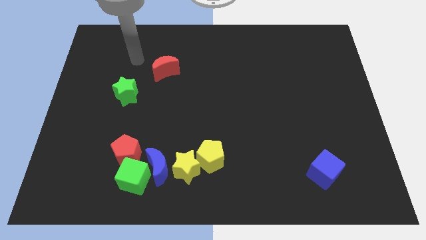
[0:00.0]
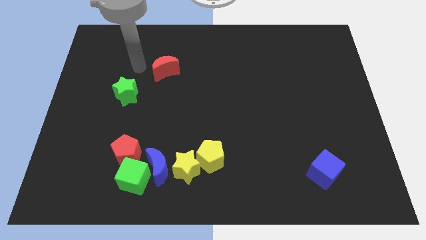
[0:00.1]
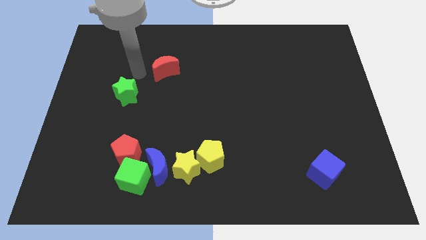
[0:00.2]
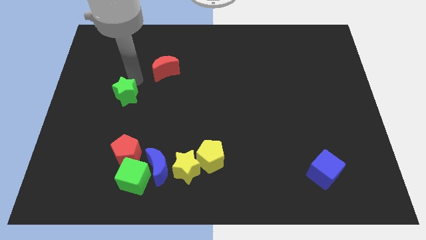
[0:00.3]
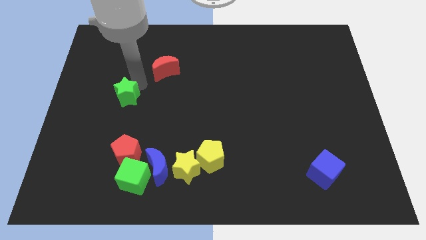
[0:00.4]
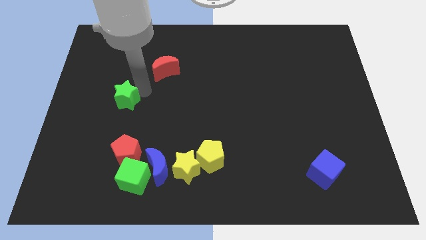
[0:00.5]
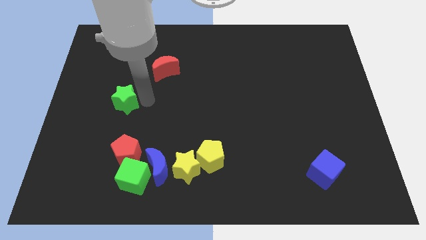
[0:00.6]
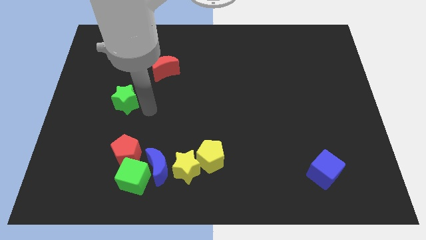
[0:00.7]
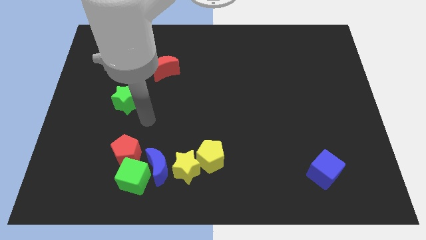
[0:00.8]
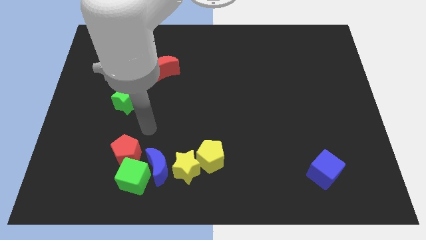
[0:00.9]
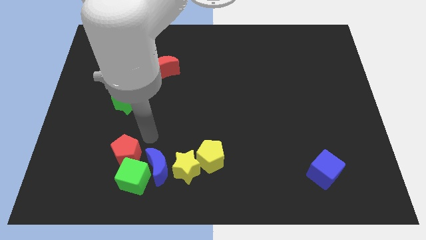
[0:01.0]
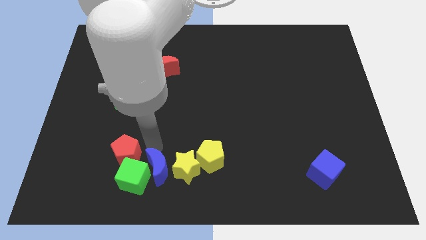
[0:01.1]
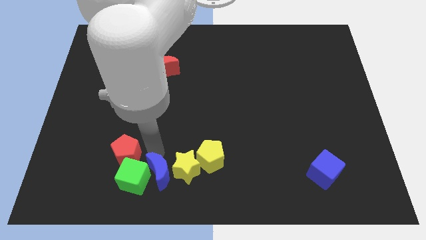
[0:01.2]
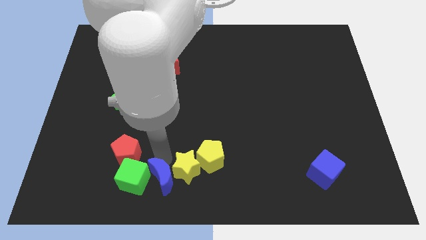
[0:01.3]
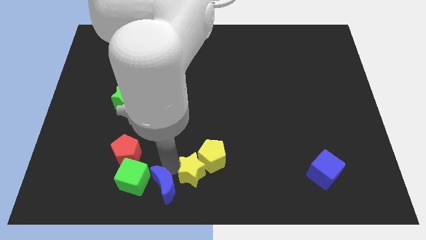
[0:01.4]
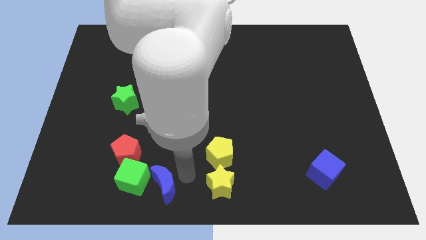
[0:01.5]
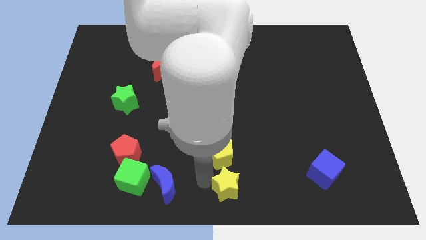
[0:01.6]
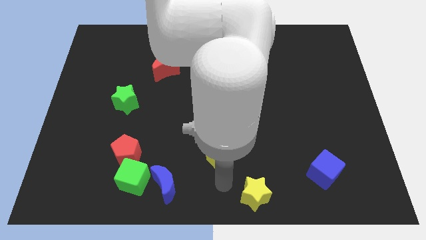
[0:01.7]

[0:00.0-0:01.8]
move the yellow pentagon away from the yellow star

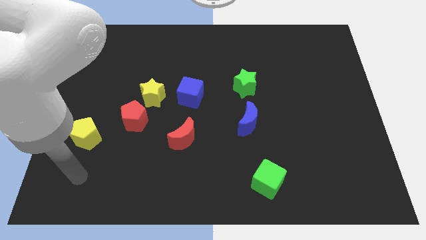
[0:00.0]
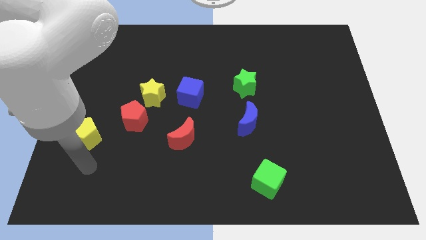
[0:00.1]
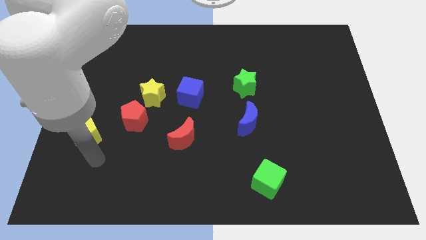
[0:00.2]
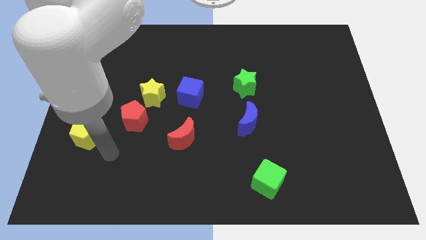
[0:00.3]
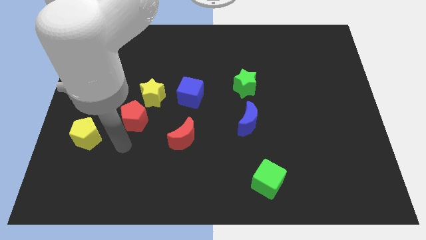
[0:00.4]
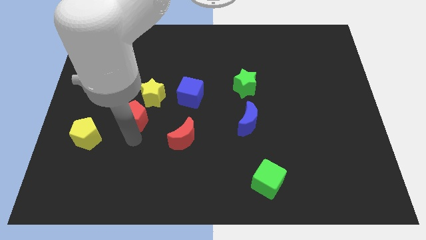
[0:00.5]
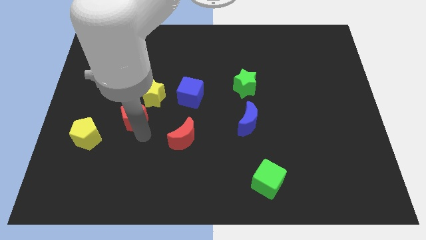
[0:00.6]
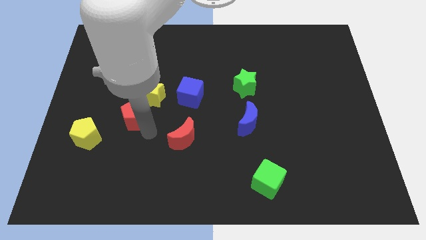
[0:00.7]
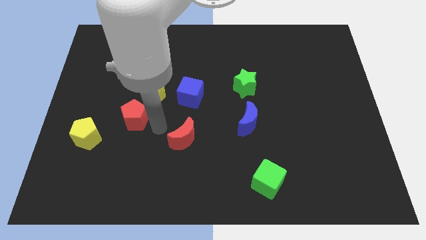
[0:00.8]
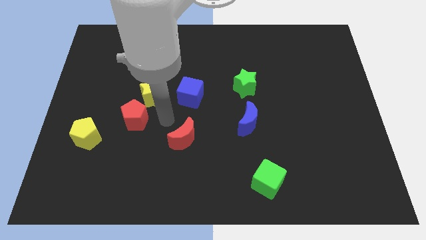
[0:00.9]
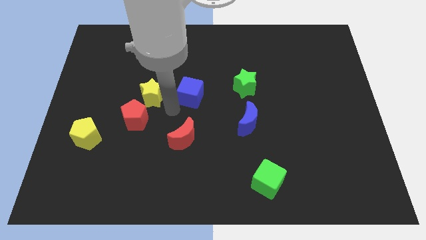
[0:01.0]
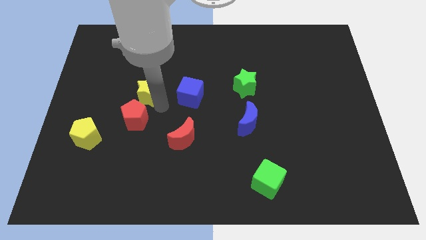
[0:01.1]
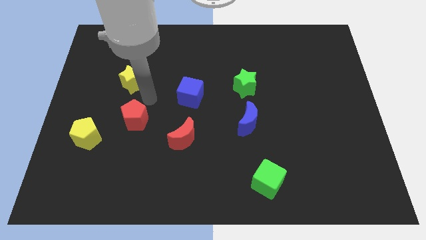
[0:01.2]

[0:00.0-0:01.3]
pull the red pentagon apart from the yellow star

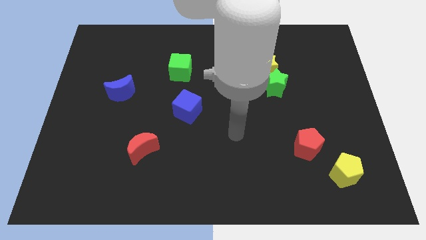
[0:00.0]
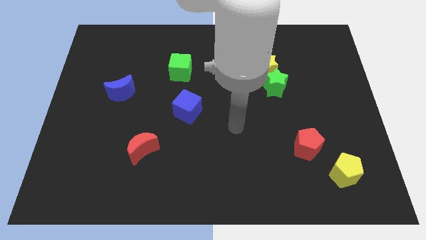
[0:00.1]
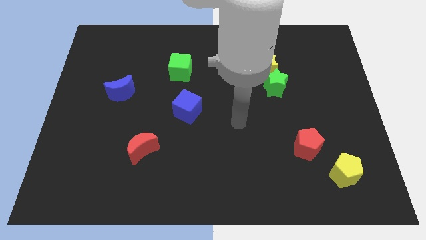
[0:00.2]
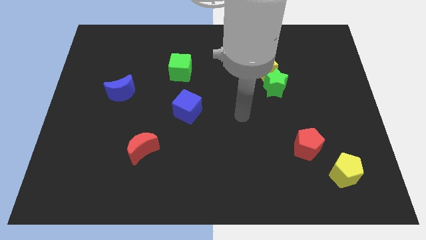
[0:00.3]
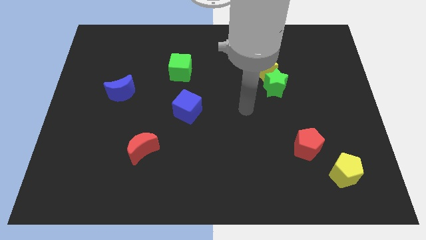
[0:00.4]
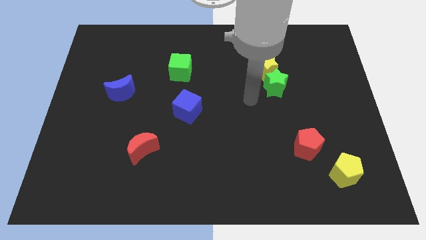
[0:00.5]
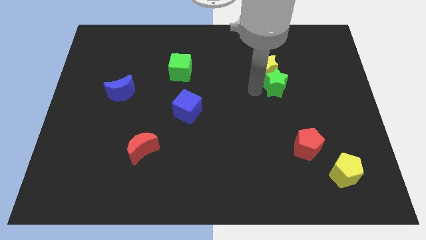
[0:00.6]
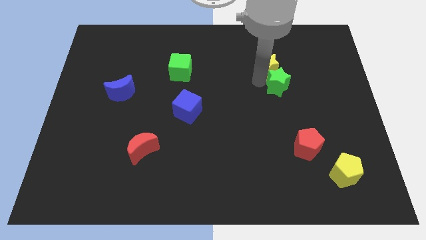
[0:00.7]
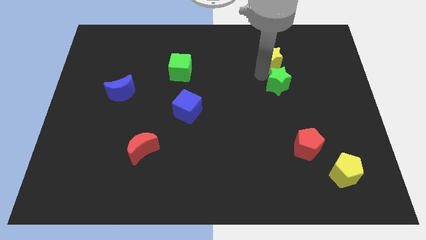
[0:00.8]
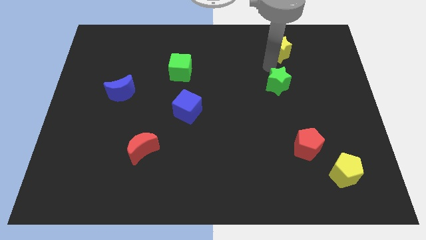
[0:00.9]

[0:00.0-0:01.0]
separate the green star from the yellow star

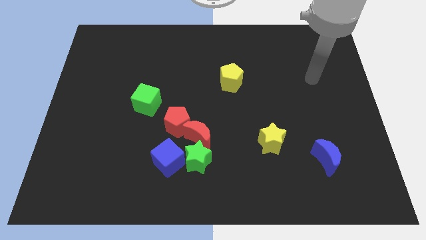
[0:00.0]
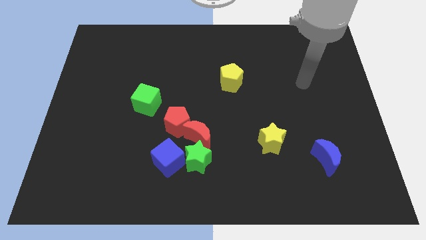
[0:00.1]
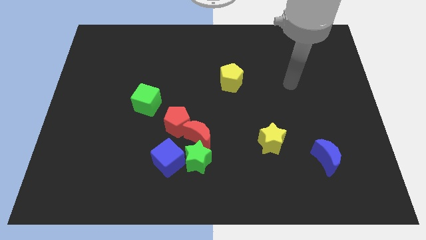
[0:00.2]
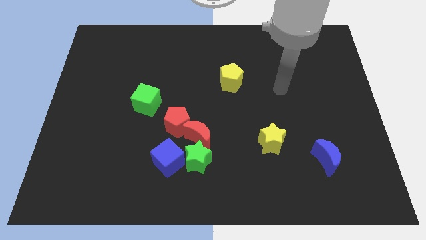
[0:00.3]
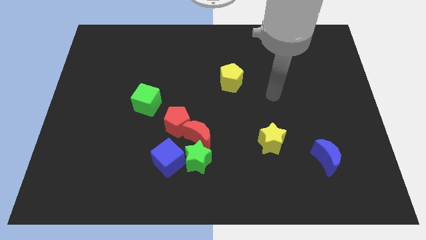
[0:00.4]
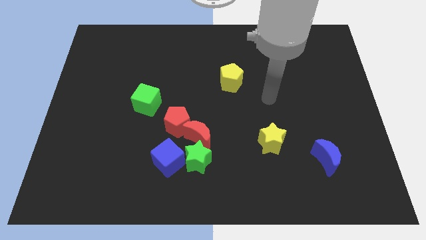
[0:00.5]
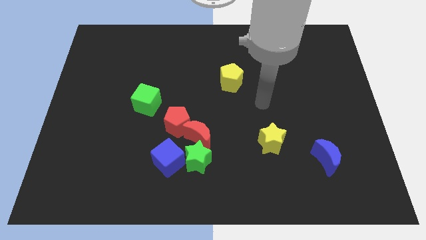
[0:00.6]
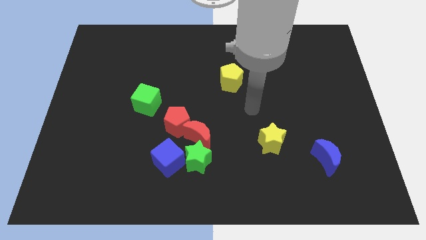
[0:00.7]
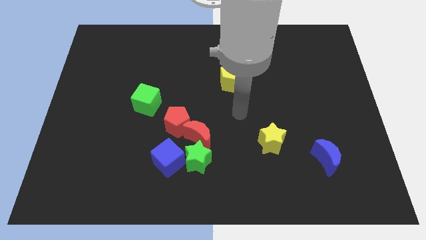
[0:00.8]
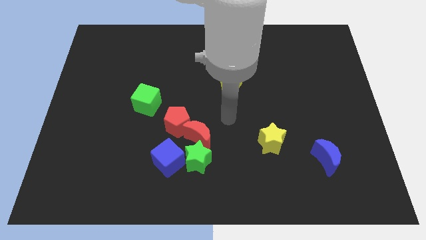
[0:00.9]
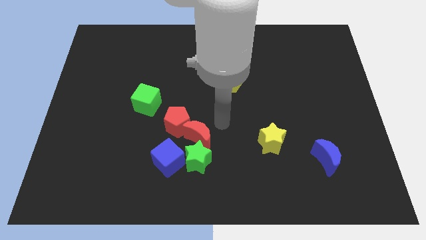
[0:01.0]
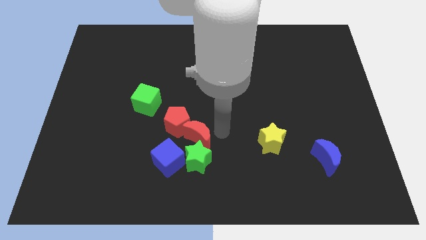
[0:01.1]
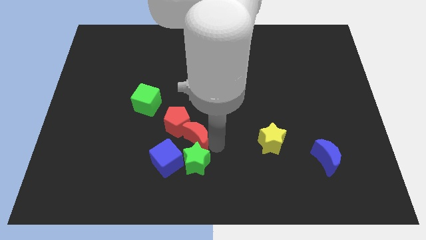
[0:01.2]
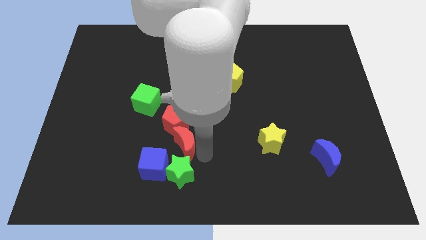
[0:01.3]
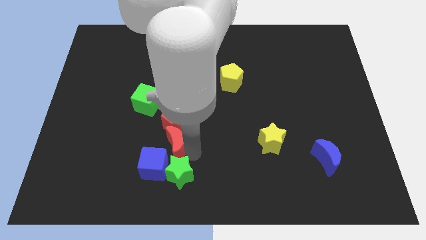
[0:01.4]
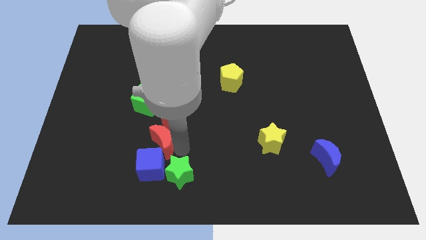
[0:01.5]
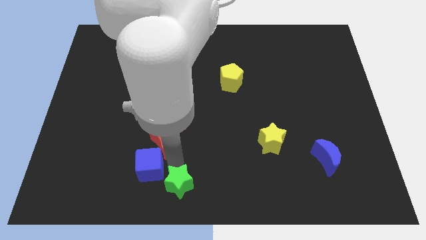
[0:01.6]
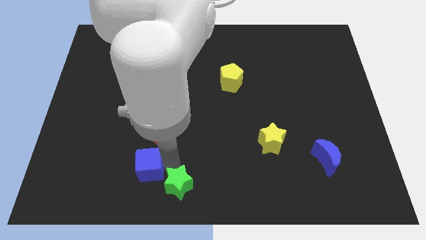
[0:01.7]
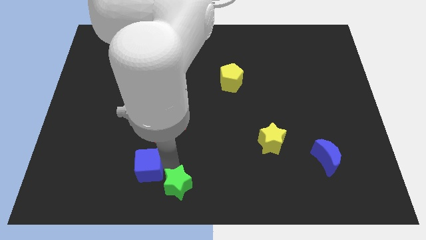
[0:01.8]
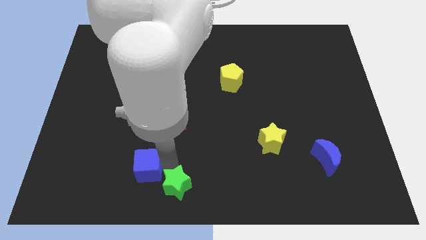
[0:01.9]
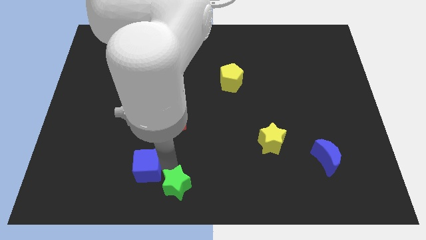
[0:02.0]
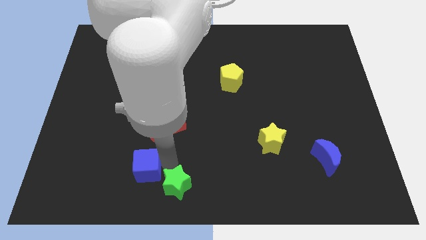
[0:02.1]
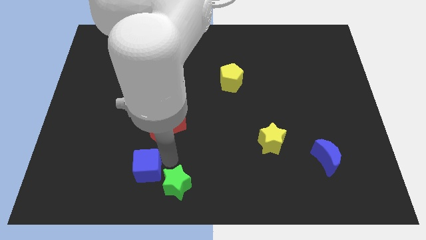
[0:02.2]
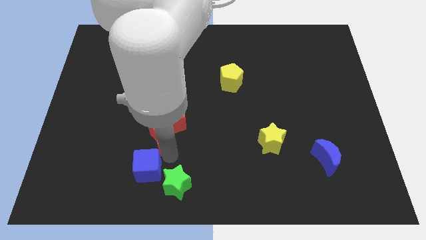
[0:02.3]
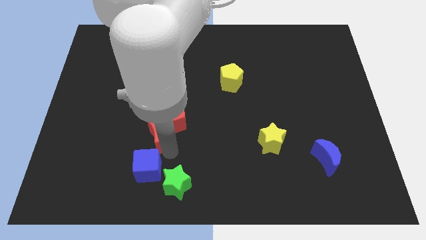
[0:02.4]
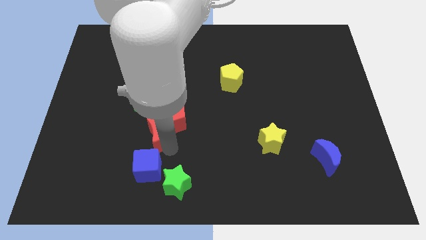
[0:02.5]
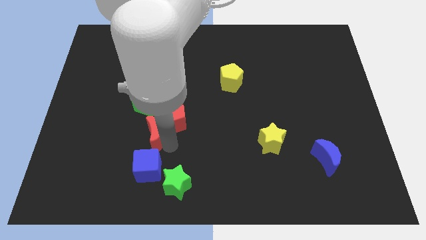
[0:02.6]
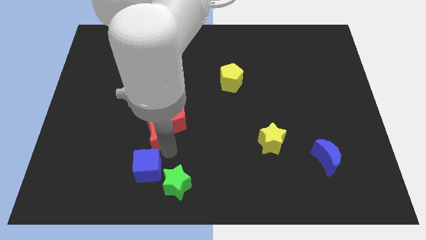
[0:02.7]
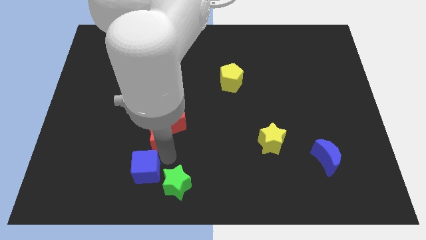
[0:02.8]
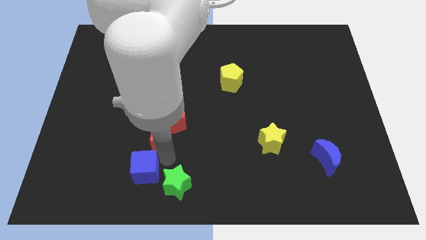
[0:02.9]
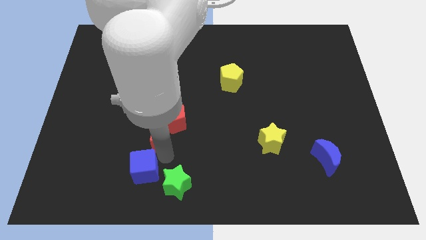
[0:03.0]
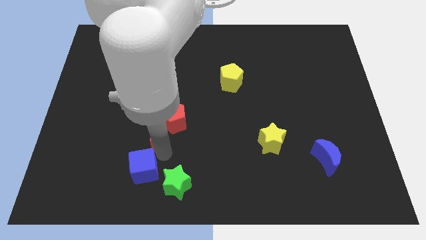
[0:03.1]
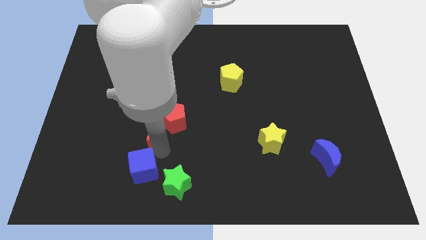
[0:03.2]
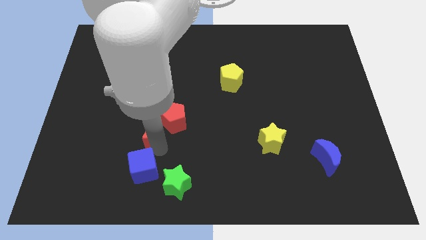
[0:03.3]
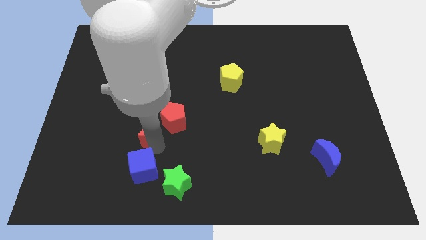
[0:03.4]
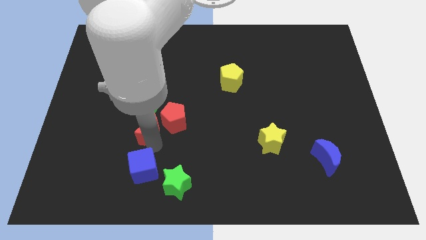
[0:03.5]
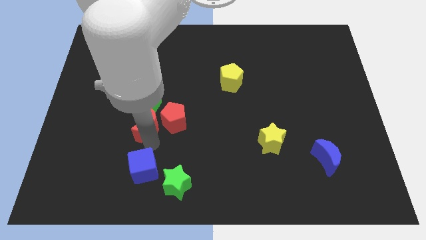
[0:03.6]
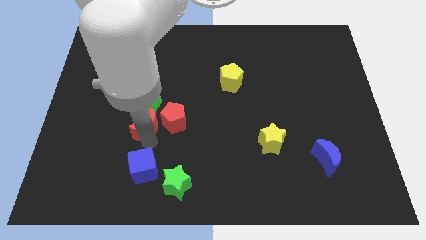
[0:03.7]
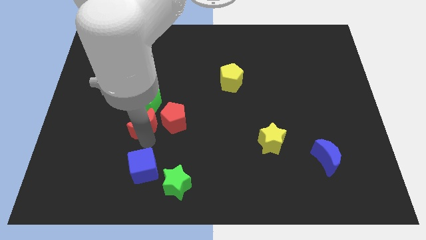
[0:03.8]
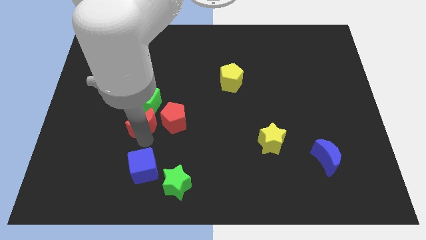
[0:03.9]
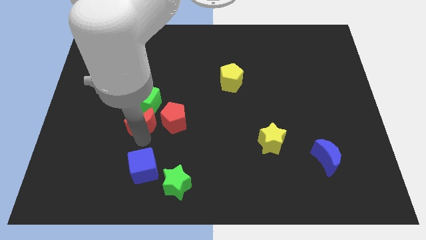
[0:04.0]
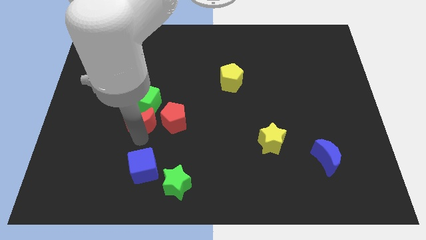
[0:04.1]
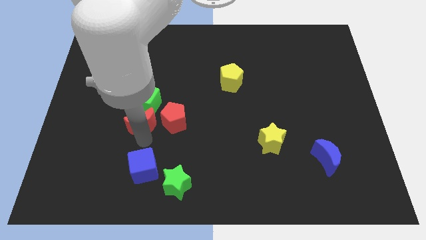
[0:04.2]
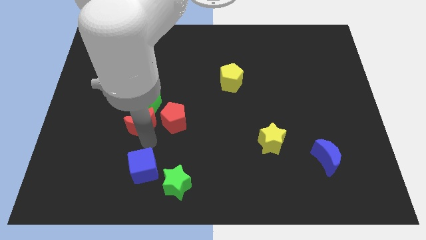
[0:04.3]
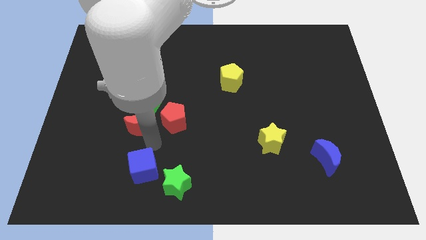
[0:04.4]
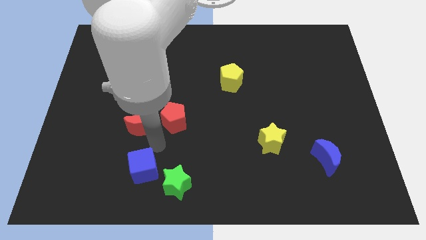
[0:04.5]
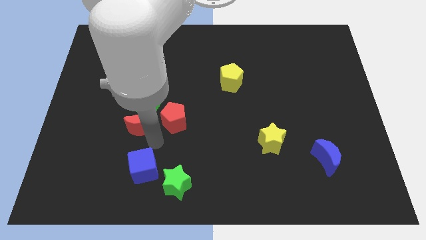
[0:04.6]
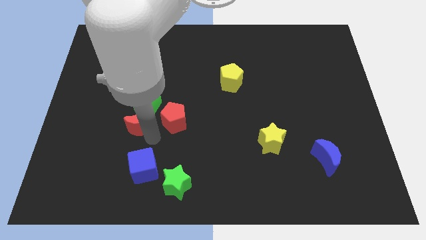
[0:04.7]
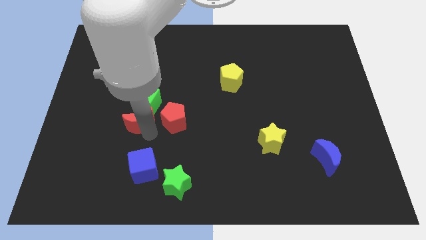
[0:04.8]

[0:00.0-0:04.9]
move the red moon away from the group of blocks

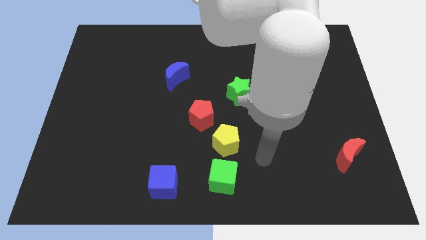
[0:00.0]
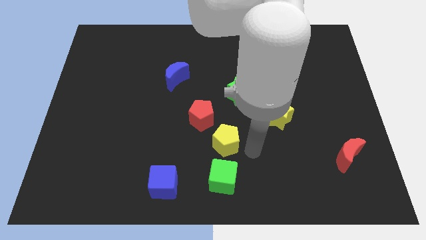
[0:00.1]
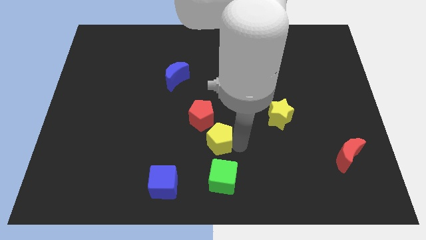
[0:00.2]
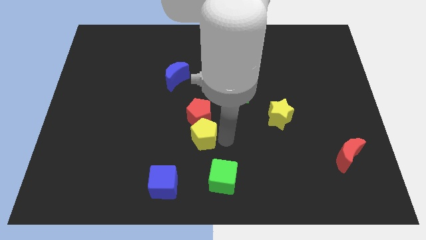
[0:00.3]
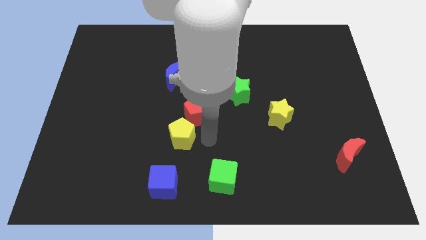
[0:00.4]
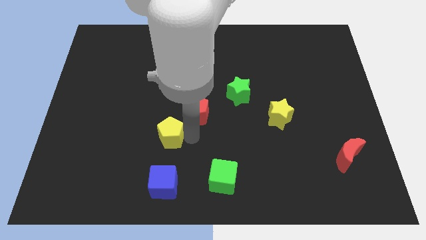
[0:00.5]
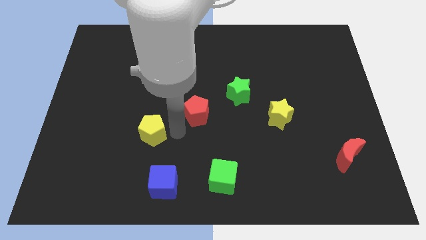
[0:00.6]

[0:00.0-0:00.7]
separate the red pentagon from the yellow pentagon
